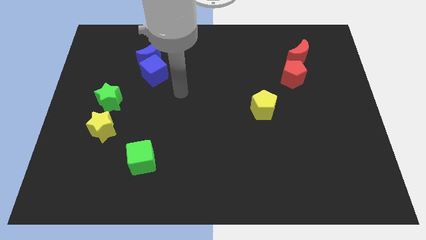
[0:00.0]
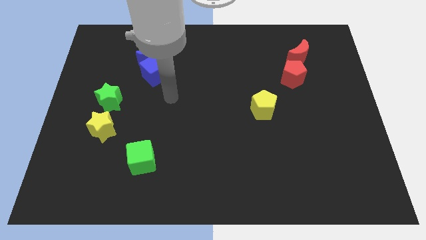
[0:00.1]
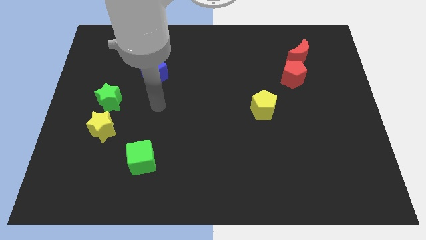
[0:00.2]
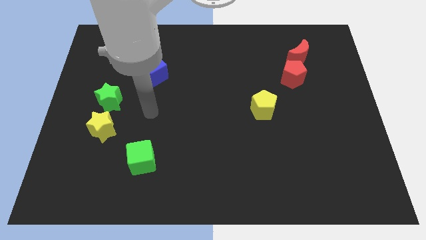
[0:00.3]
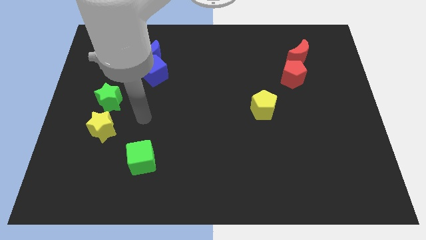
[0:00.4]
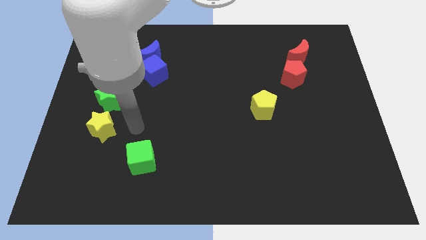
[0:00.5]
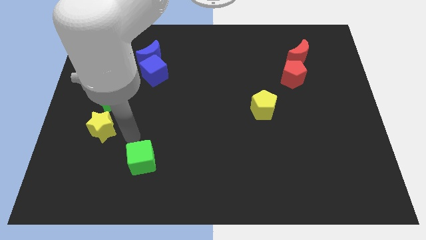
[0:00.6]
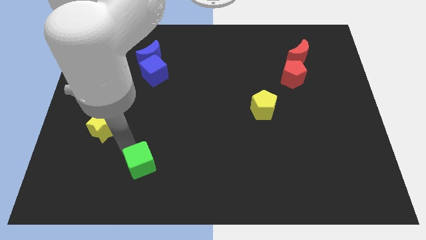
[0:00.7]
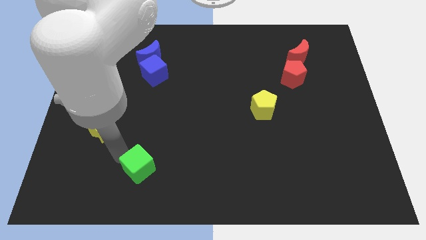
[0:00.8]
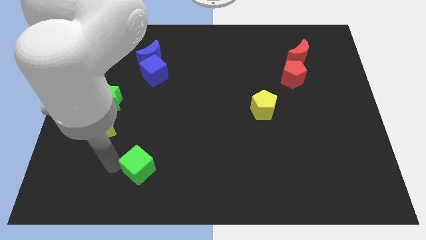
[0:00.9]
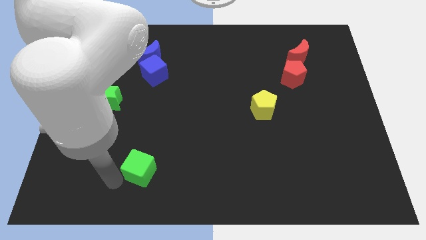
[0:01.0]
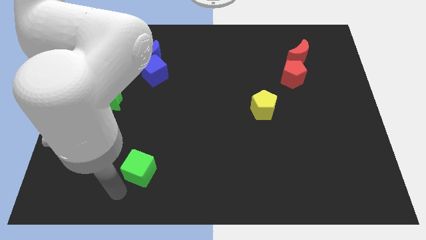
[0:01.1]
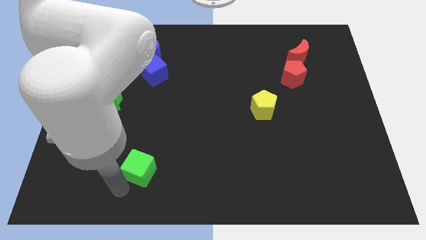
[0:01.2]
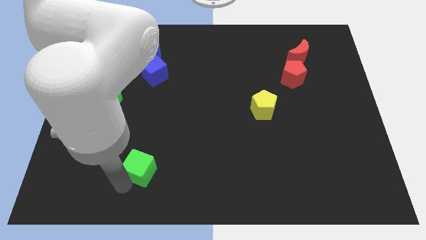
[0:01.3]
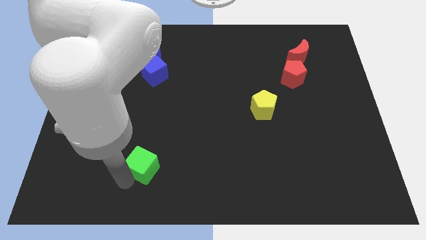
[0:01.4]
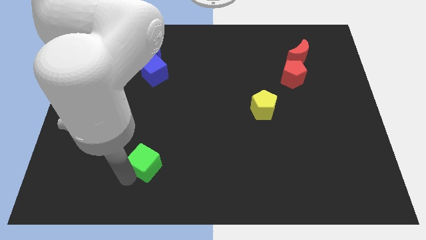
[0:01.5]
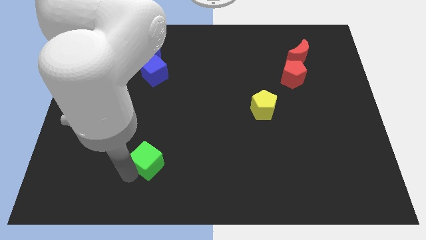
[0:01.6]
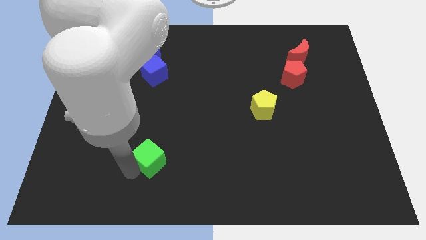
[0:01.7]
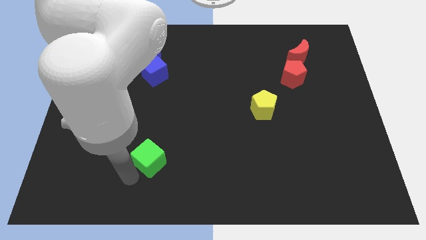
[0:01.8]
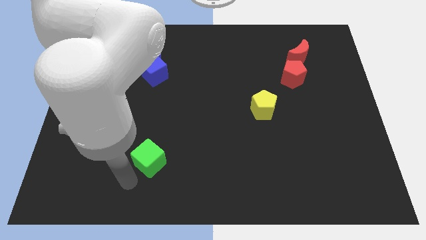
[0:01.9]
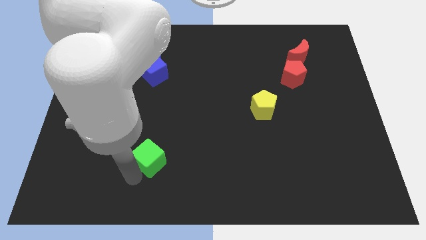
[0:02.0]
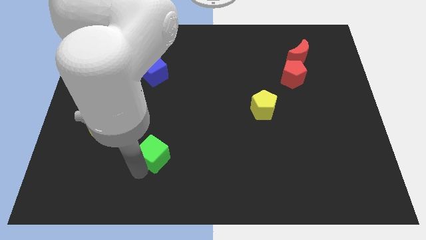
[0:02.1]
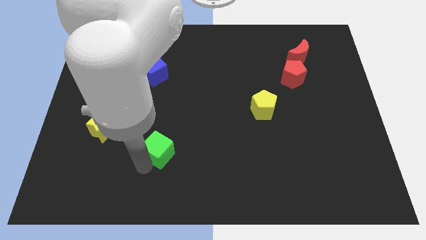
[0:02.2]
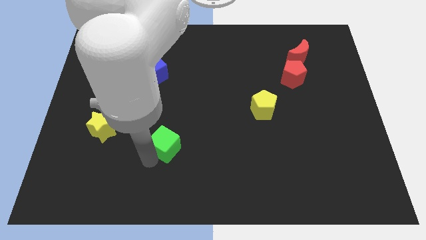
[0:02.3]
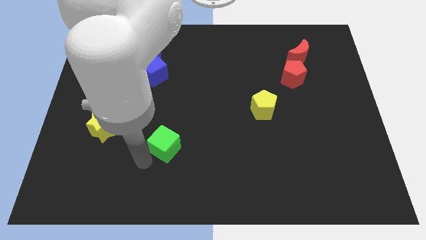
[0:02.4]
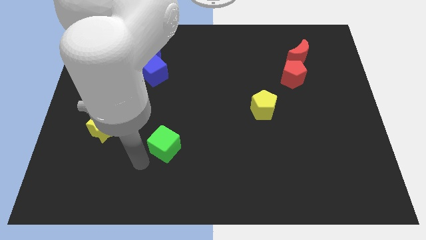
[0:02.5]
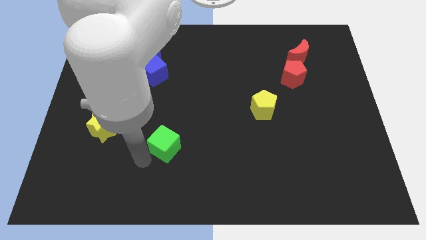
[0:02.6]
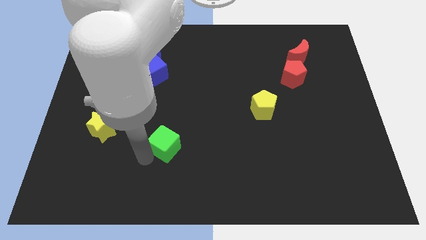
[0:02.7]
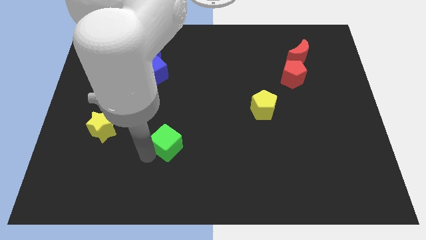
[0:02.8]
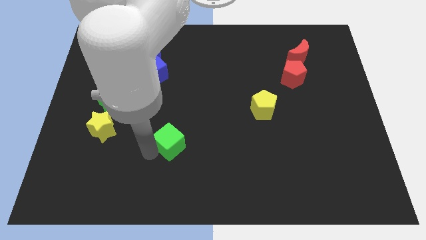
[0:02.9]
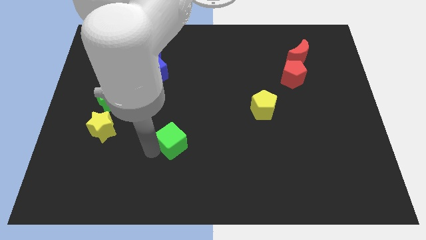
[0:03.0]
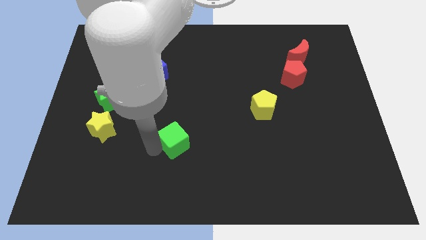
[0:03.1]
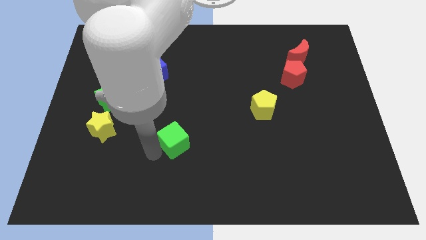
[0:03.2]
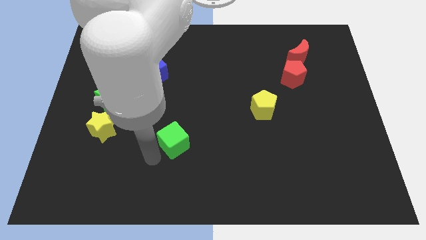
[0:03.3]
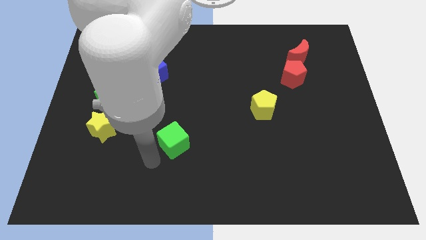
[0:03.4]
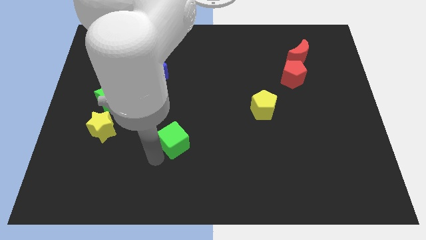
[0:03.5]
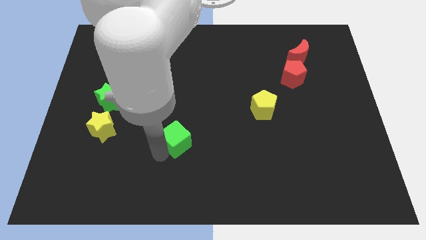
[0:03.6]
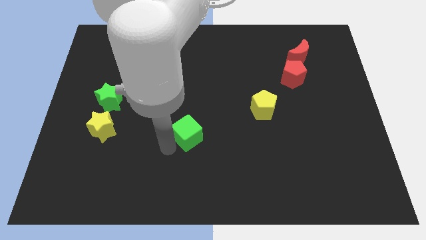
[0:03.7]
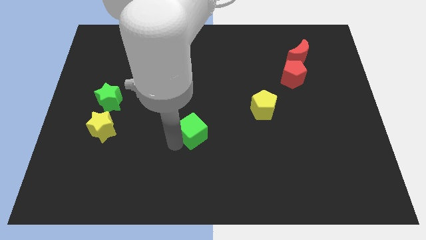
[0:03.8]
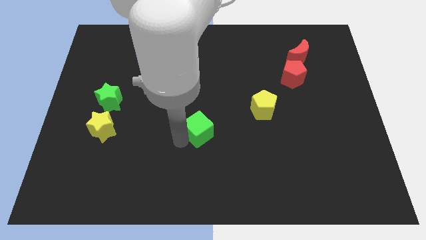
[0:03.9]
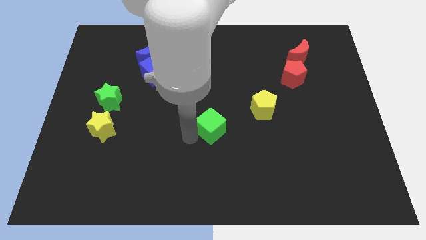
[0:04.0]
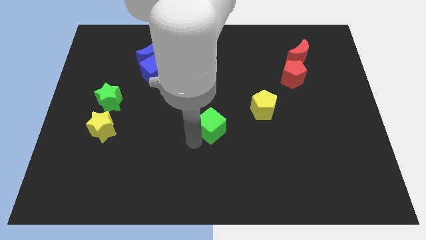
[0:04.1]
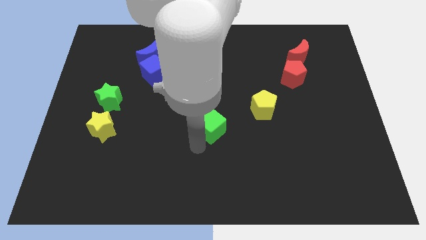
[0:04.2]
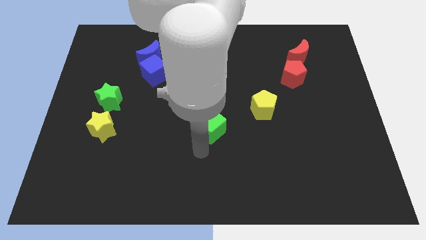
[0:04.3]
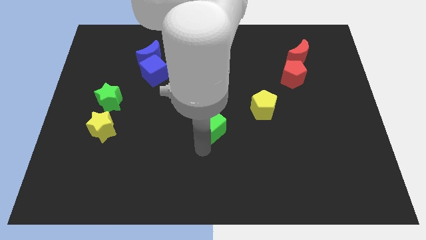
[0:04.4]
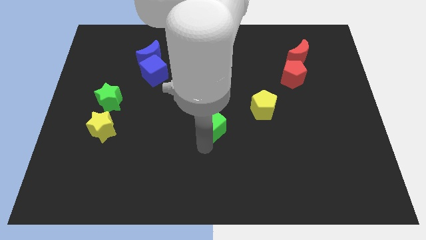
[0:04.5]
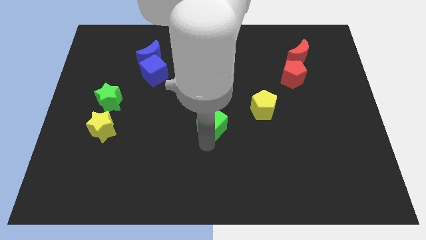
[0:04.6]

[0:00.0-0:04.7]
move the green cube to the left side of the yellow pentagon

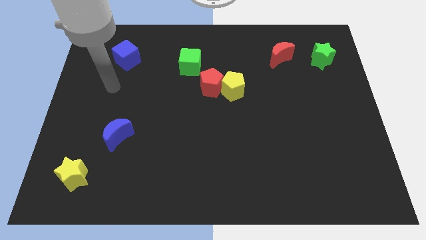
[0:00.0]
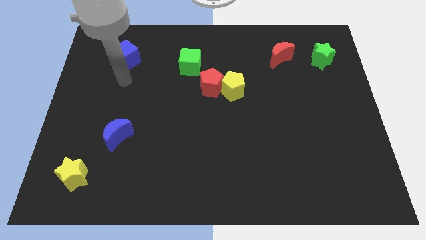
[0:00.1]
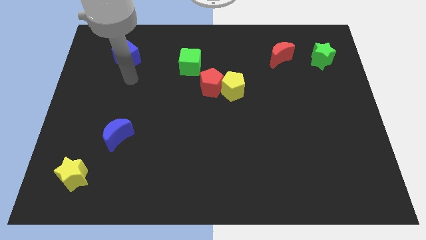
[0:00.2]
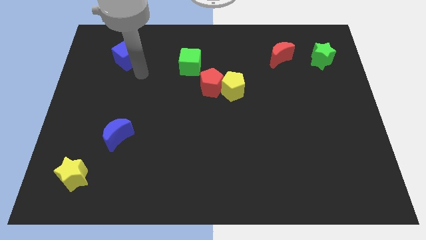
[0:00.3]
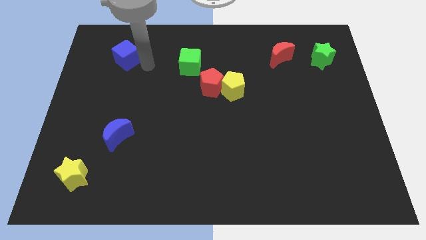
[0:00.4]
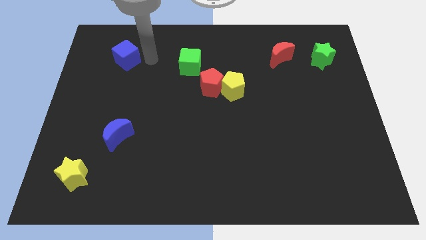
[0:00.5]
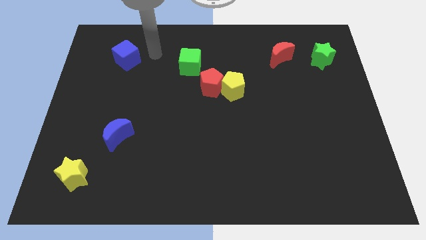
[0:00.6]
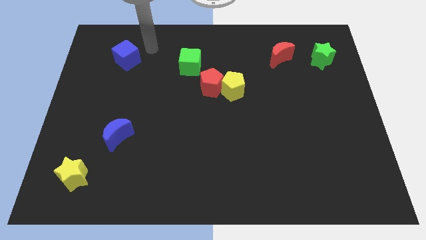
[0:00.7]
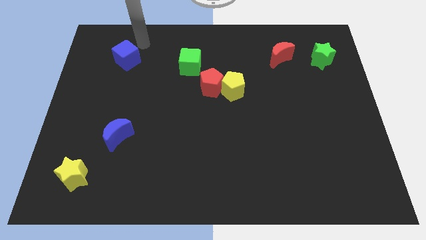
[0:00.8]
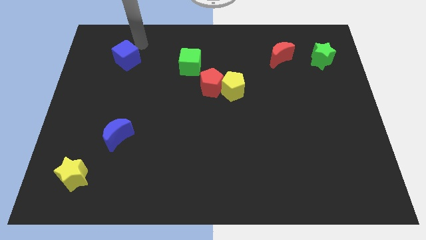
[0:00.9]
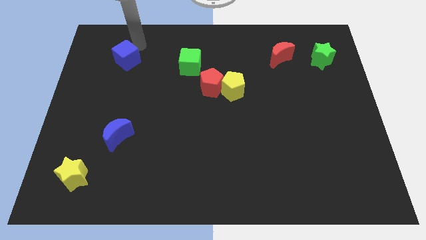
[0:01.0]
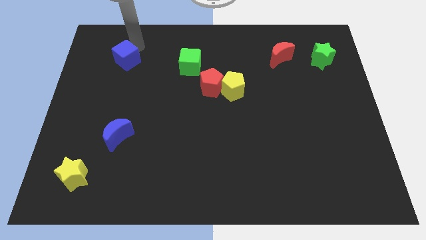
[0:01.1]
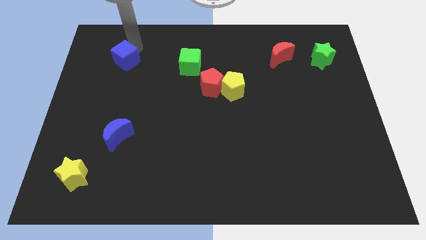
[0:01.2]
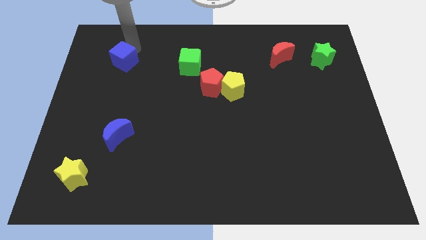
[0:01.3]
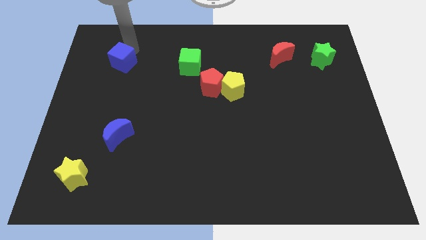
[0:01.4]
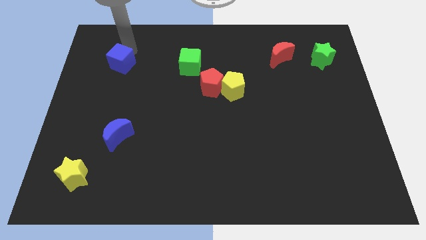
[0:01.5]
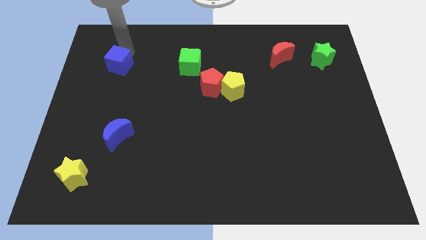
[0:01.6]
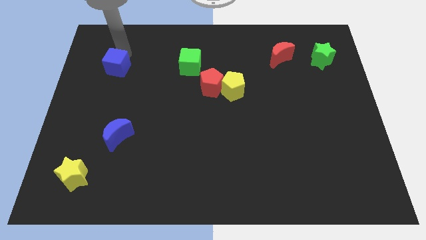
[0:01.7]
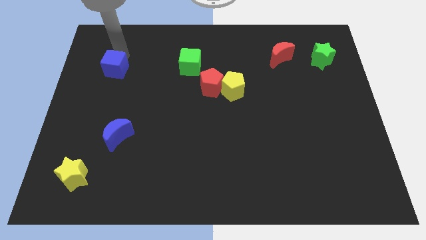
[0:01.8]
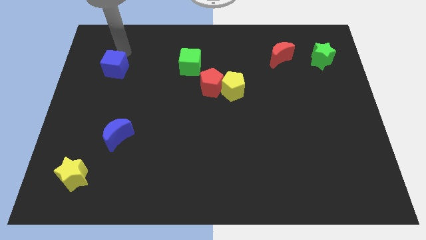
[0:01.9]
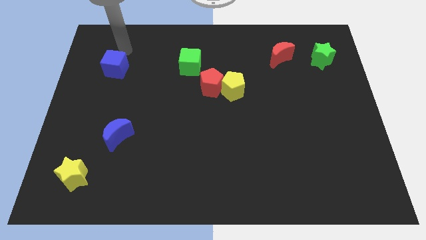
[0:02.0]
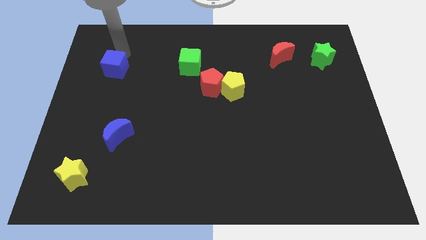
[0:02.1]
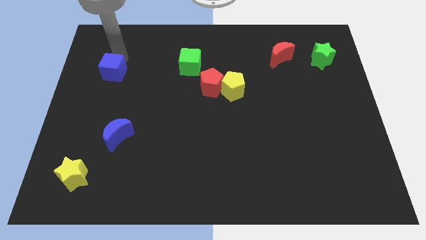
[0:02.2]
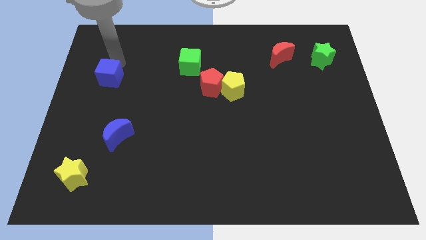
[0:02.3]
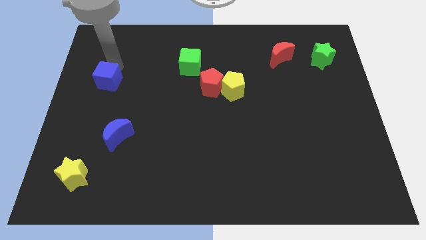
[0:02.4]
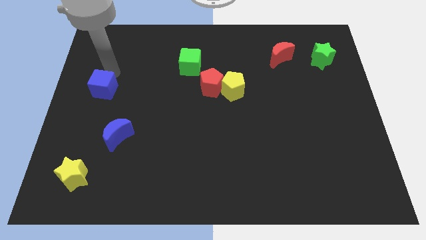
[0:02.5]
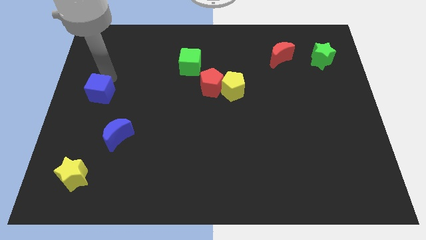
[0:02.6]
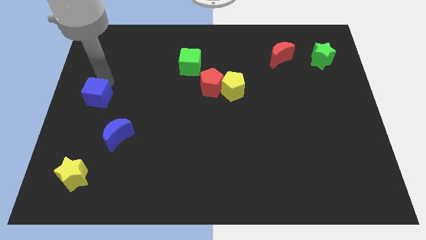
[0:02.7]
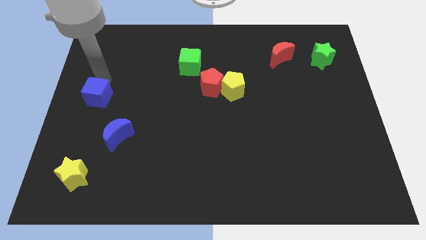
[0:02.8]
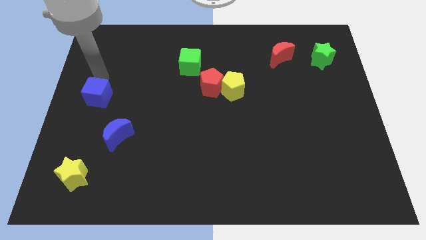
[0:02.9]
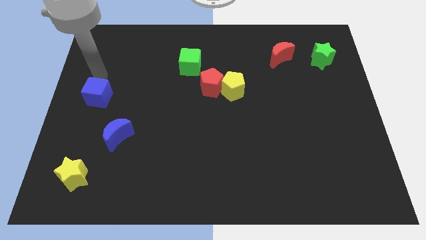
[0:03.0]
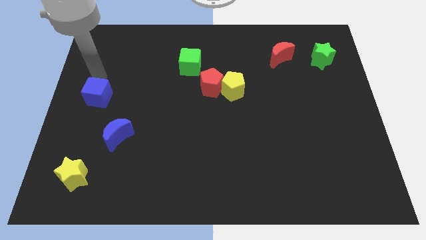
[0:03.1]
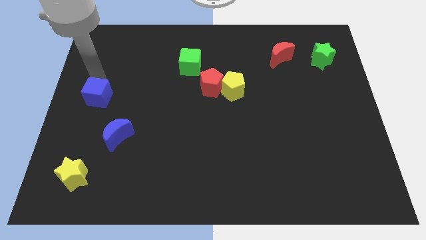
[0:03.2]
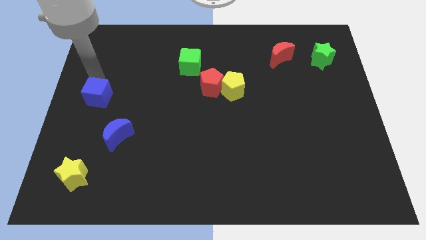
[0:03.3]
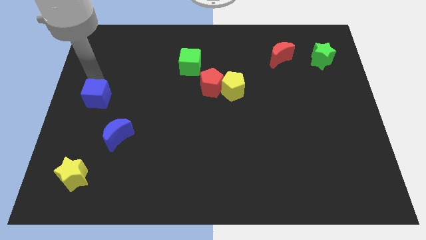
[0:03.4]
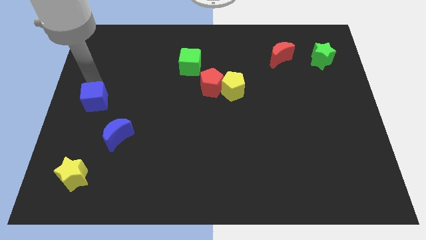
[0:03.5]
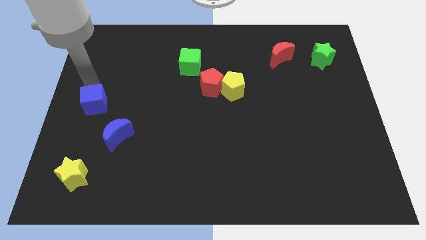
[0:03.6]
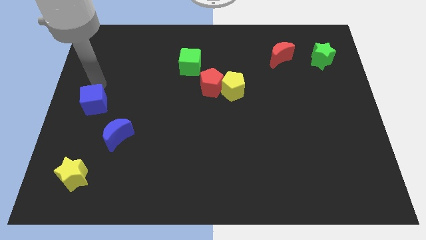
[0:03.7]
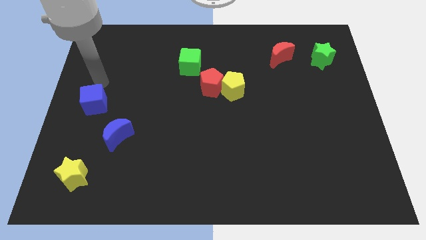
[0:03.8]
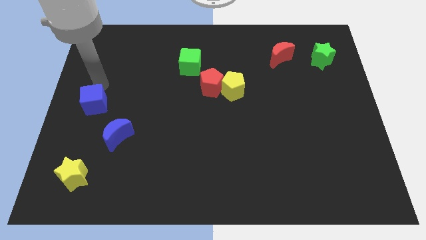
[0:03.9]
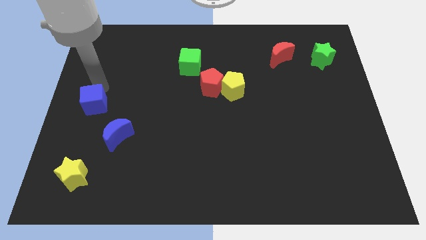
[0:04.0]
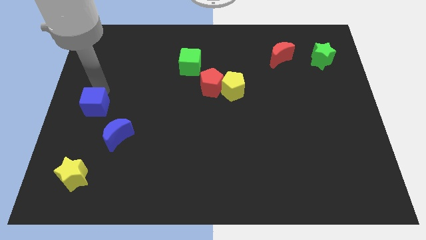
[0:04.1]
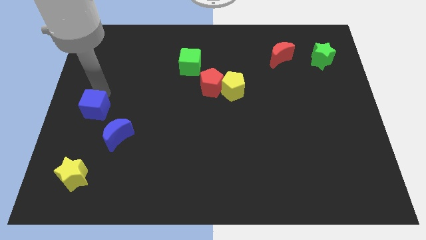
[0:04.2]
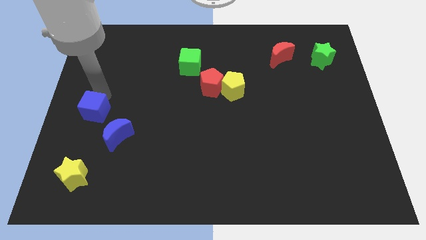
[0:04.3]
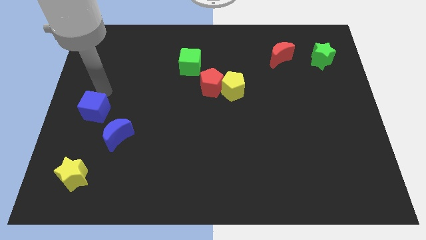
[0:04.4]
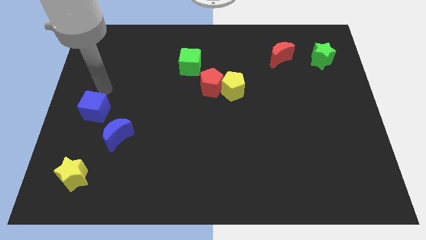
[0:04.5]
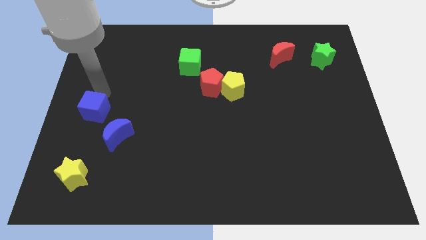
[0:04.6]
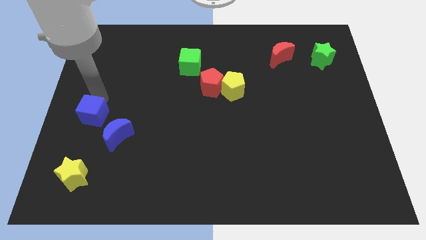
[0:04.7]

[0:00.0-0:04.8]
move the blue cube to the top of the yellow star
